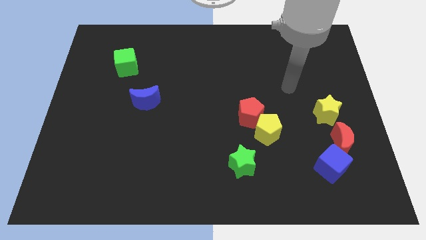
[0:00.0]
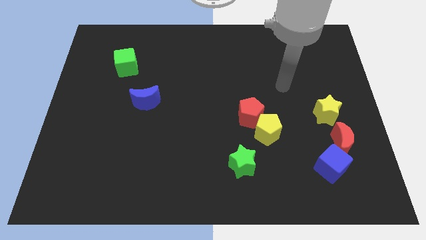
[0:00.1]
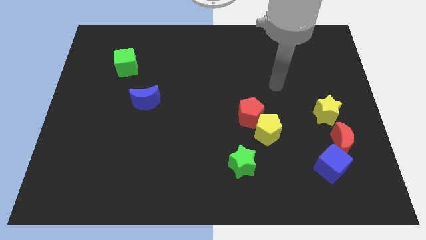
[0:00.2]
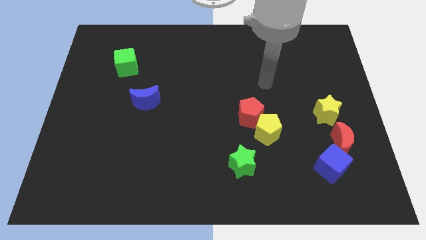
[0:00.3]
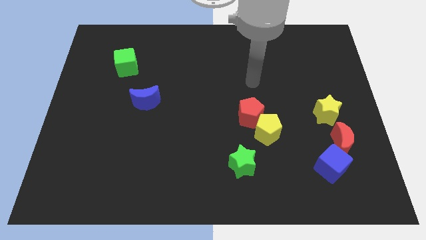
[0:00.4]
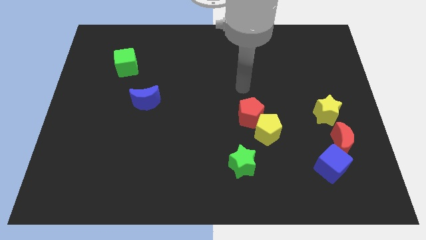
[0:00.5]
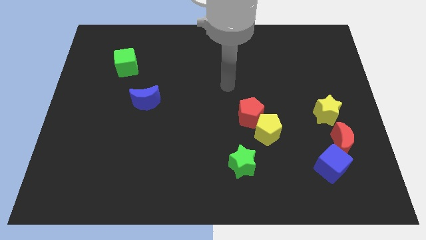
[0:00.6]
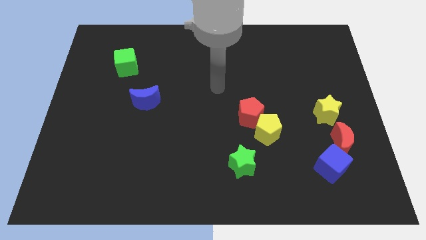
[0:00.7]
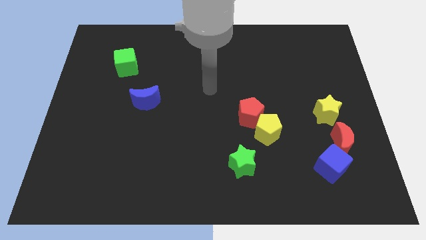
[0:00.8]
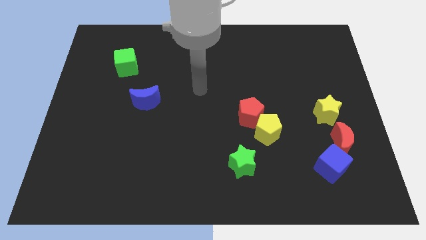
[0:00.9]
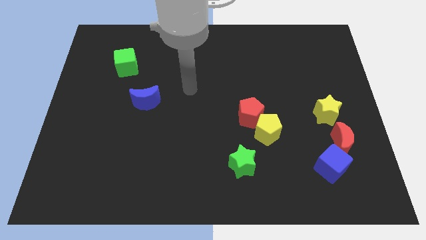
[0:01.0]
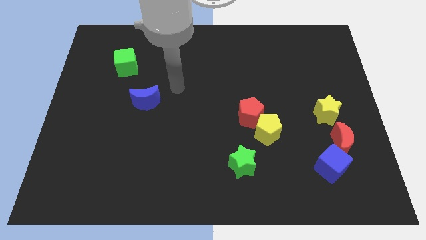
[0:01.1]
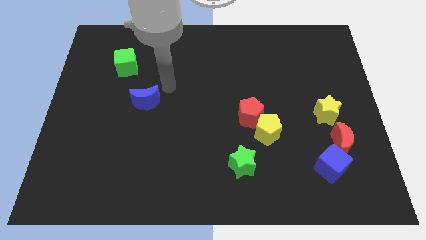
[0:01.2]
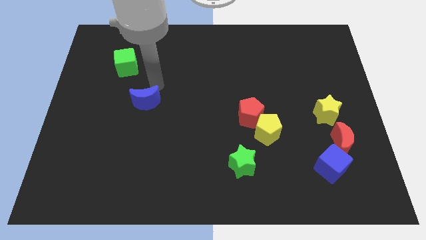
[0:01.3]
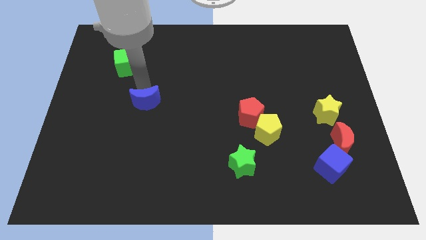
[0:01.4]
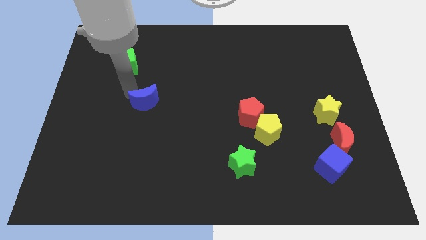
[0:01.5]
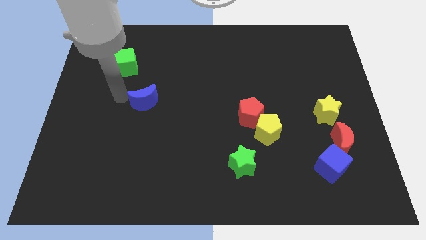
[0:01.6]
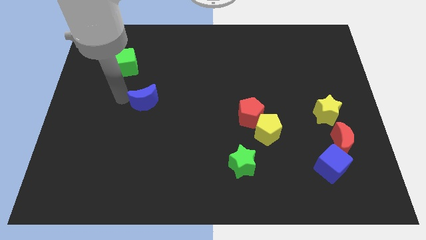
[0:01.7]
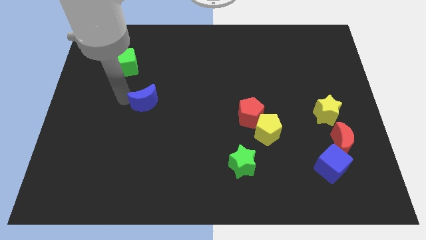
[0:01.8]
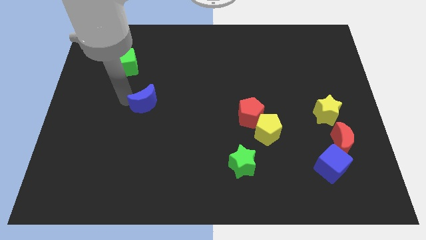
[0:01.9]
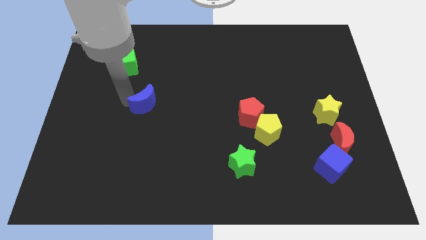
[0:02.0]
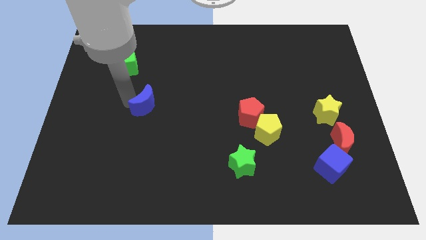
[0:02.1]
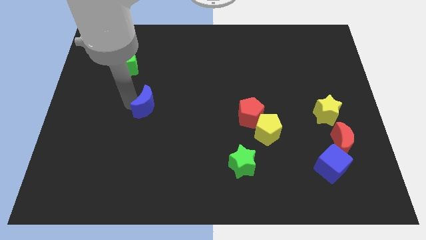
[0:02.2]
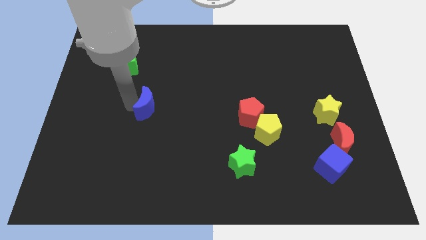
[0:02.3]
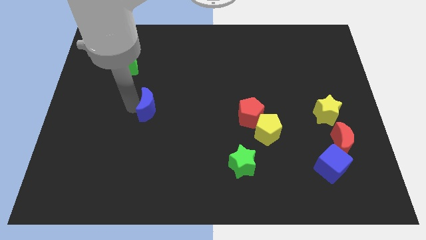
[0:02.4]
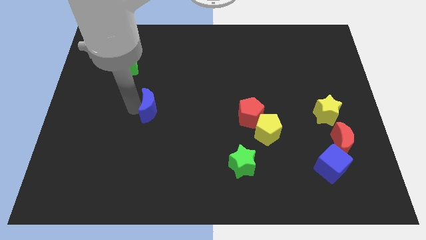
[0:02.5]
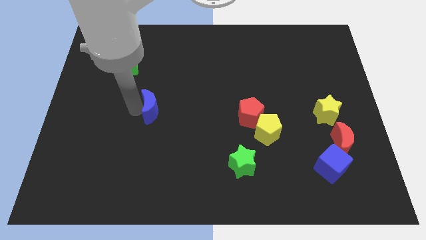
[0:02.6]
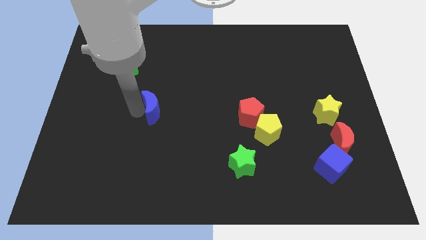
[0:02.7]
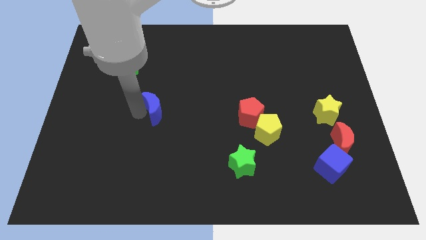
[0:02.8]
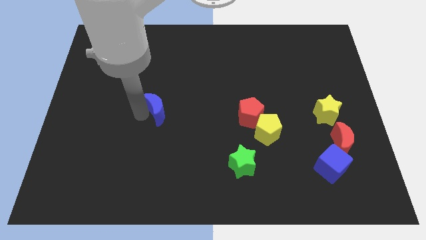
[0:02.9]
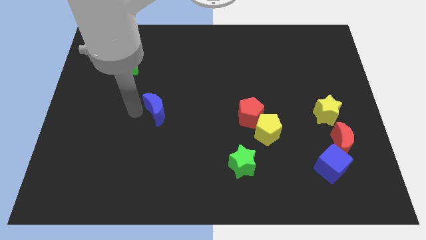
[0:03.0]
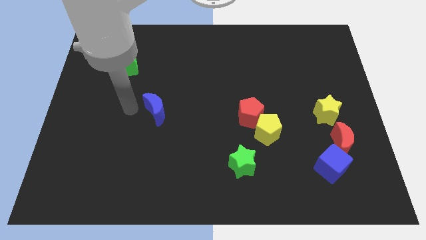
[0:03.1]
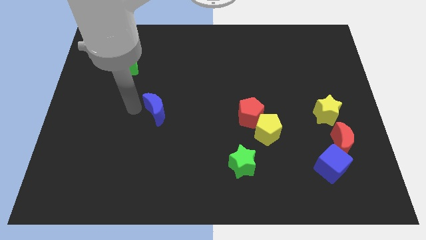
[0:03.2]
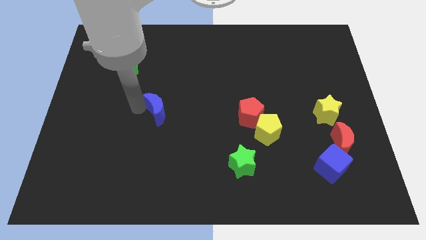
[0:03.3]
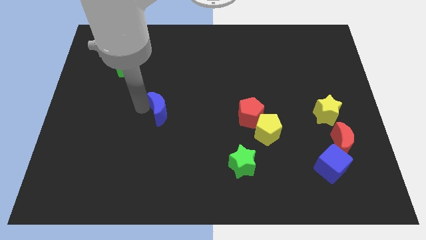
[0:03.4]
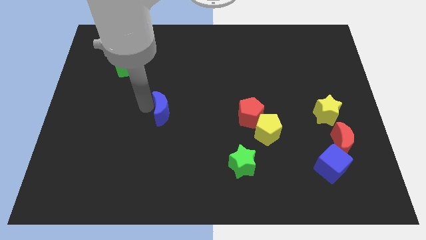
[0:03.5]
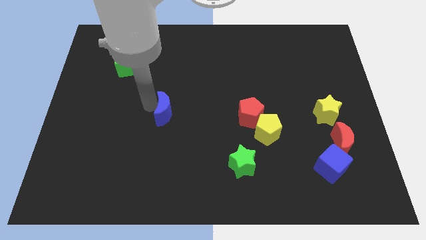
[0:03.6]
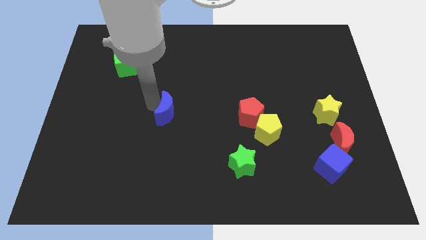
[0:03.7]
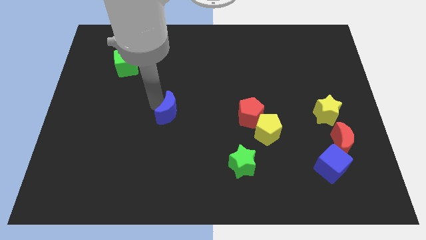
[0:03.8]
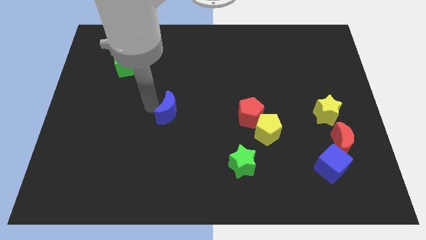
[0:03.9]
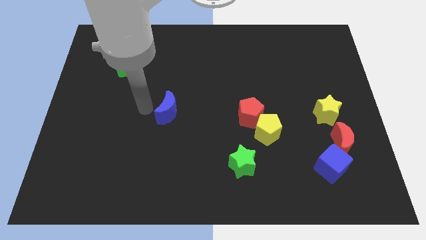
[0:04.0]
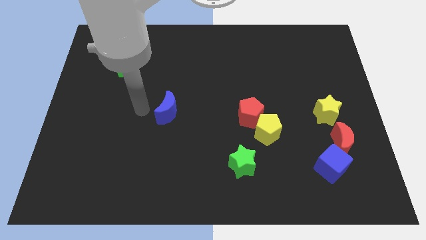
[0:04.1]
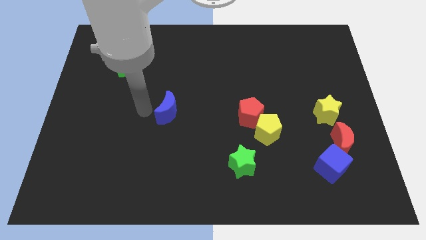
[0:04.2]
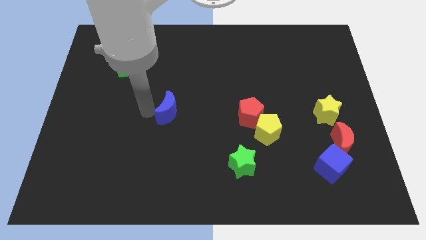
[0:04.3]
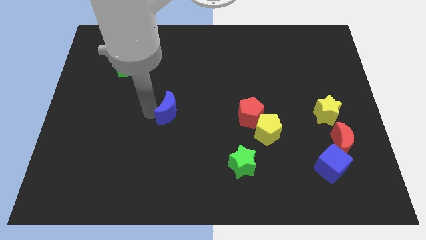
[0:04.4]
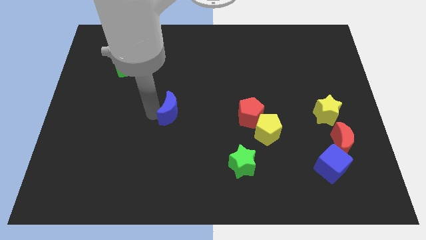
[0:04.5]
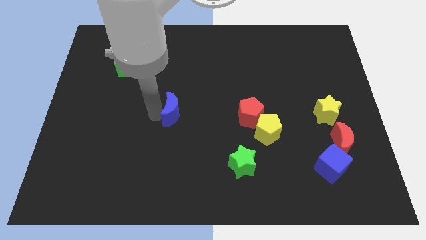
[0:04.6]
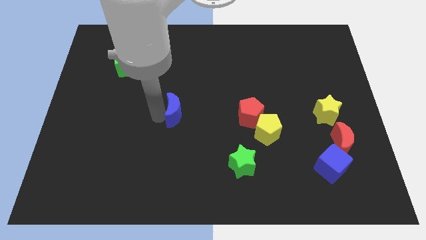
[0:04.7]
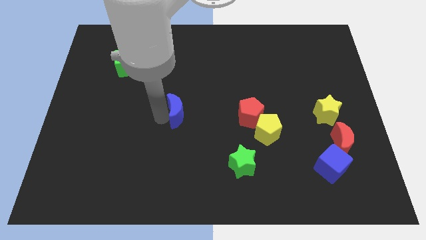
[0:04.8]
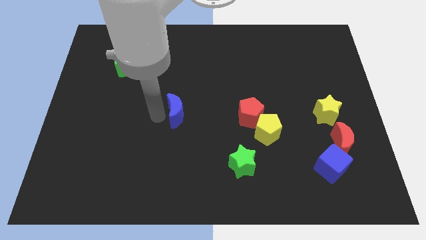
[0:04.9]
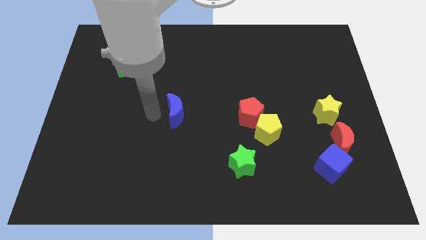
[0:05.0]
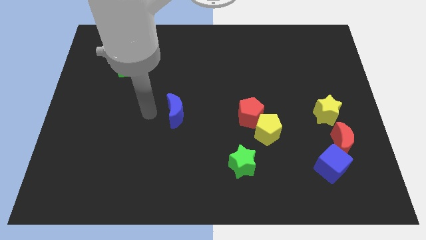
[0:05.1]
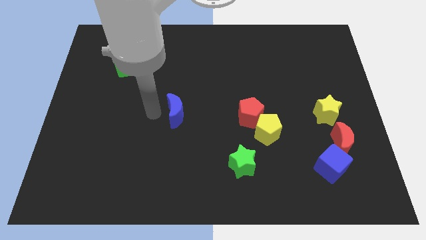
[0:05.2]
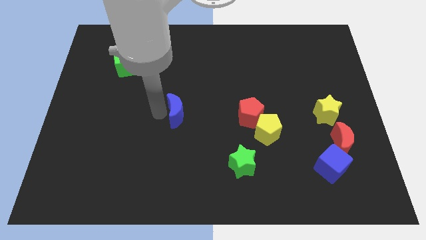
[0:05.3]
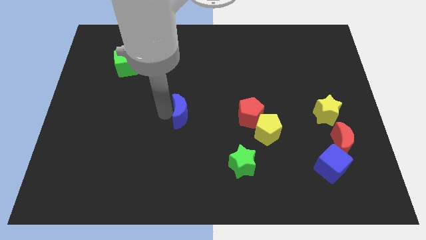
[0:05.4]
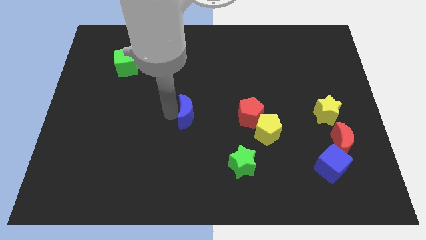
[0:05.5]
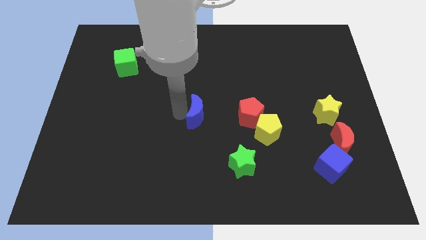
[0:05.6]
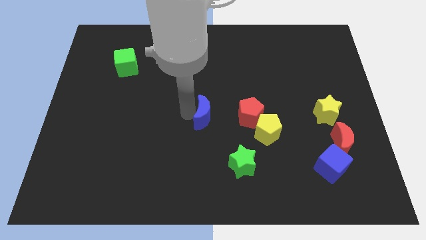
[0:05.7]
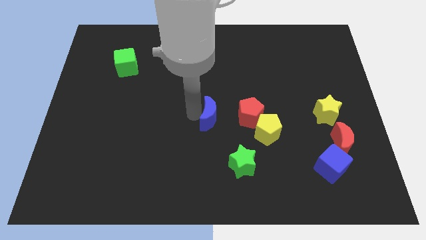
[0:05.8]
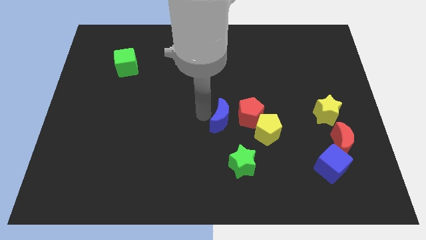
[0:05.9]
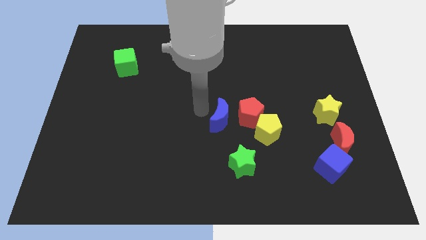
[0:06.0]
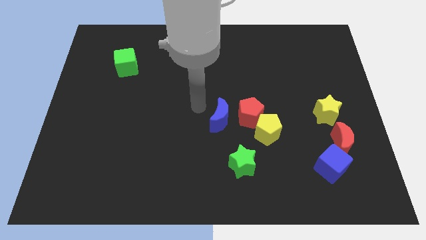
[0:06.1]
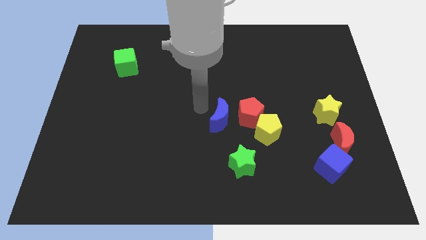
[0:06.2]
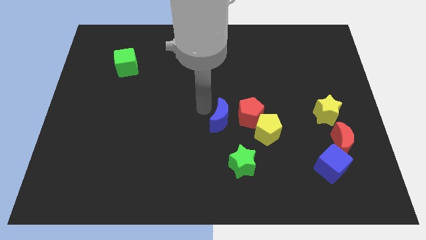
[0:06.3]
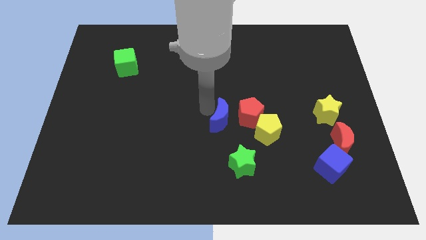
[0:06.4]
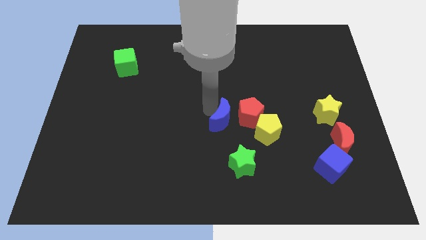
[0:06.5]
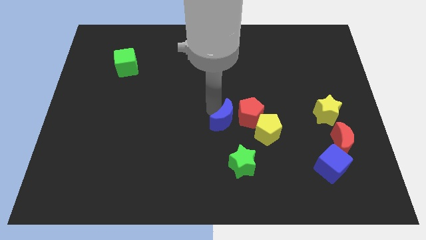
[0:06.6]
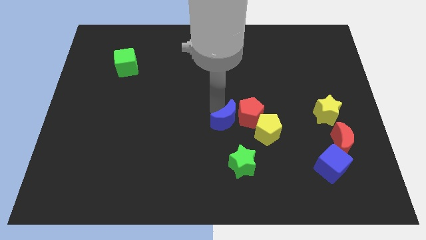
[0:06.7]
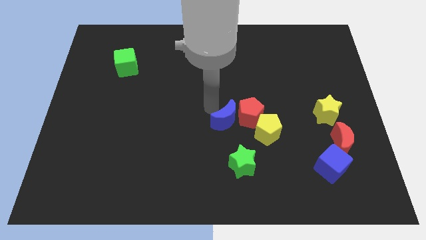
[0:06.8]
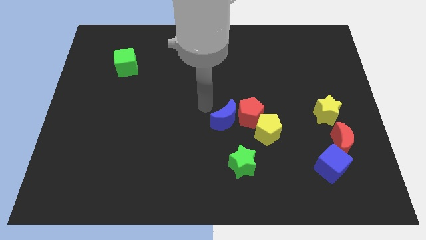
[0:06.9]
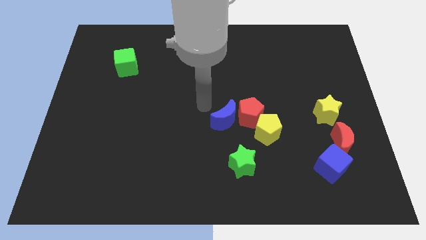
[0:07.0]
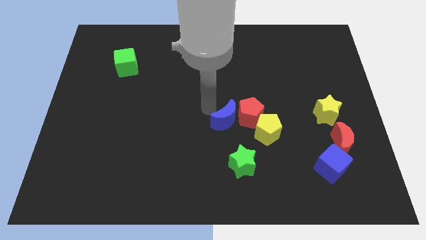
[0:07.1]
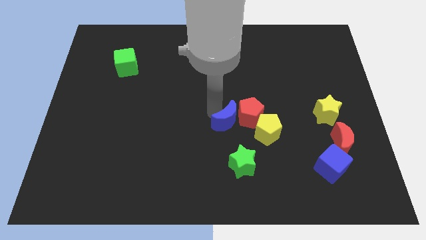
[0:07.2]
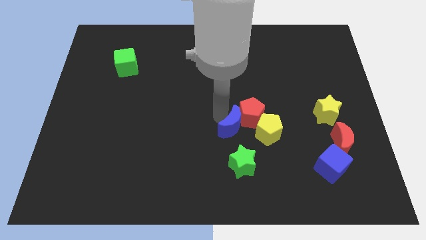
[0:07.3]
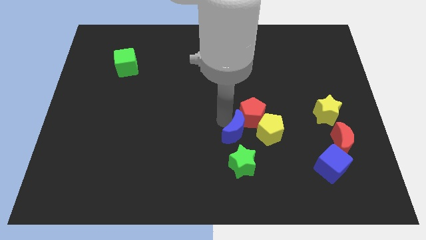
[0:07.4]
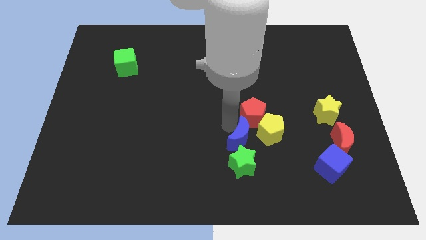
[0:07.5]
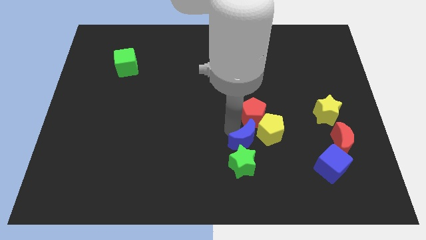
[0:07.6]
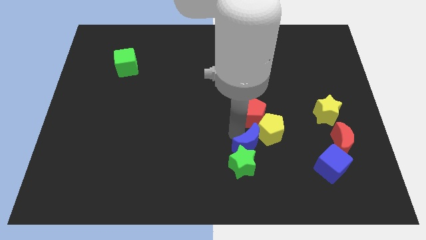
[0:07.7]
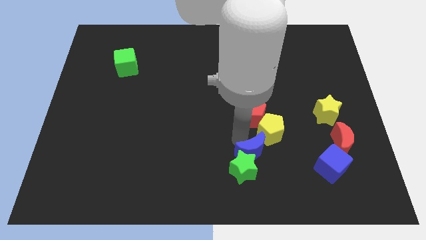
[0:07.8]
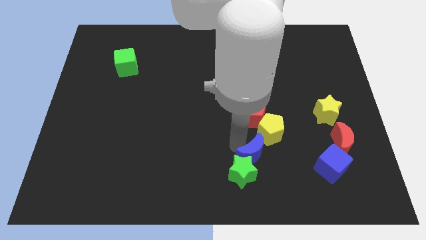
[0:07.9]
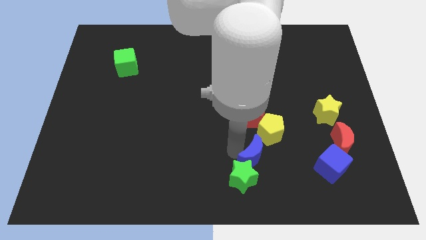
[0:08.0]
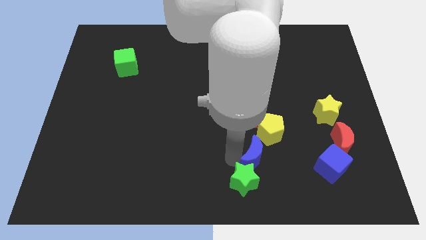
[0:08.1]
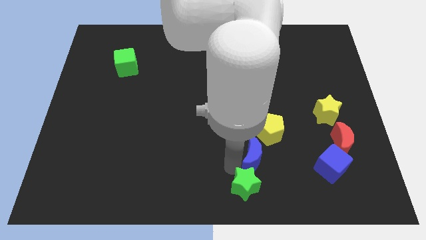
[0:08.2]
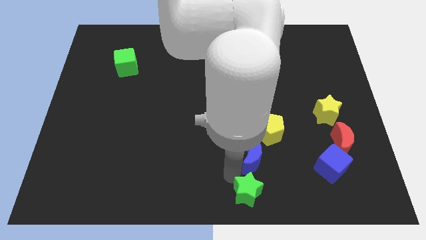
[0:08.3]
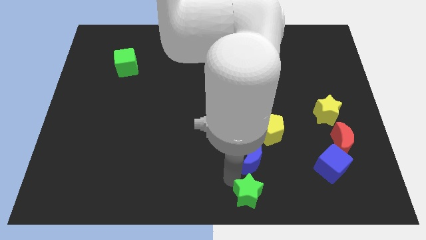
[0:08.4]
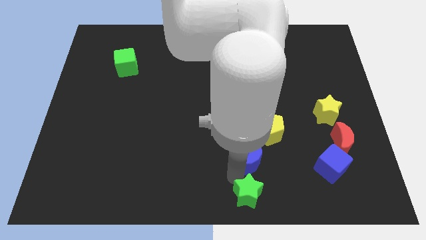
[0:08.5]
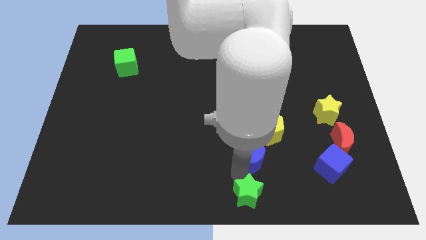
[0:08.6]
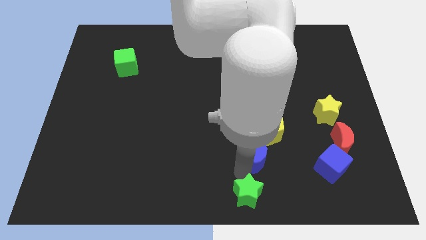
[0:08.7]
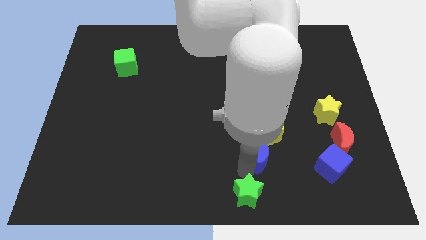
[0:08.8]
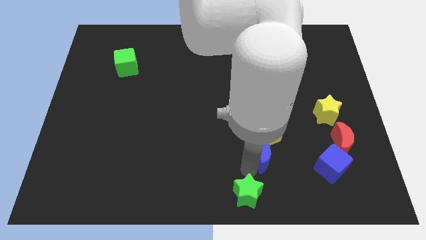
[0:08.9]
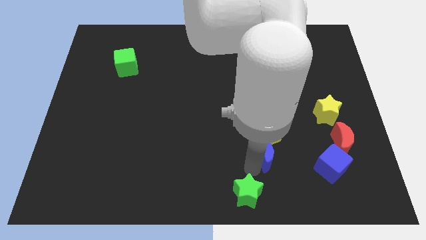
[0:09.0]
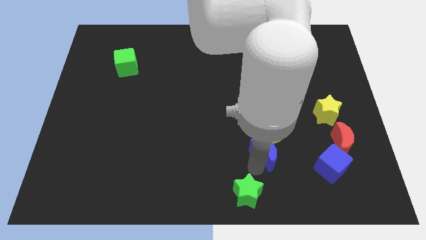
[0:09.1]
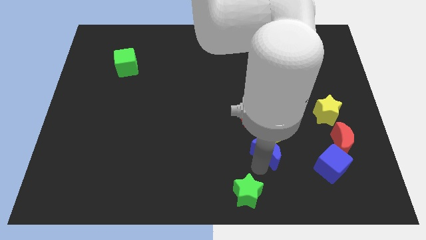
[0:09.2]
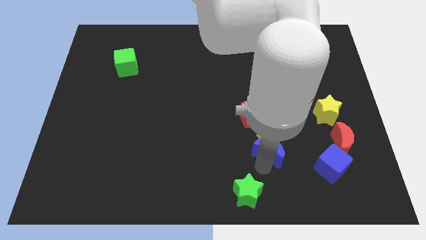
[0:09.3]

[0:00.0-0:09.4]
slide the blue moon to the bottom right side of the red pentagon
